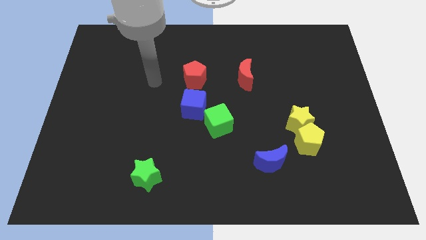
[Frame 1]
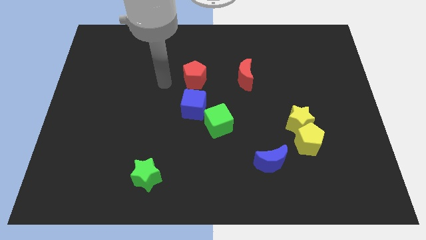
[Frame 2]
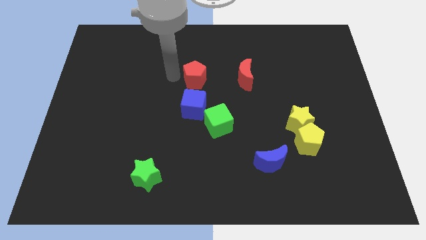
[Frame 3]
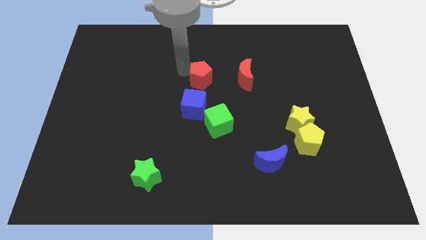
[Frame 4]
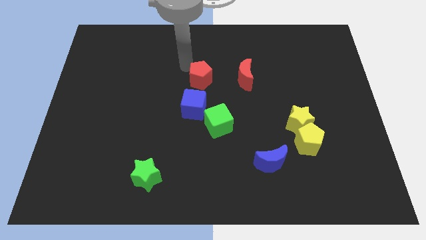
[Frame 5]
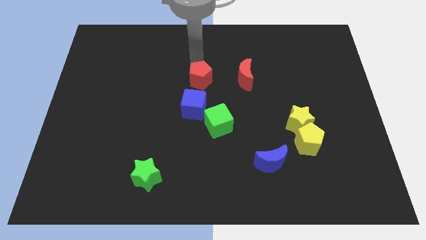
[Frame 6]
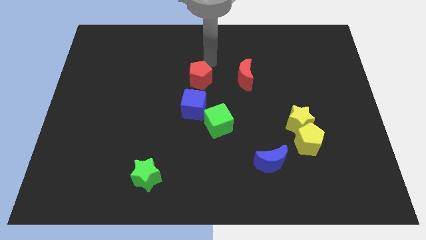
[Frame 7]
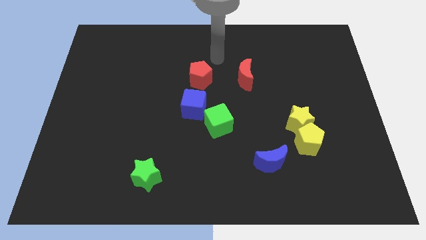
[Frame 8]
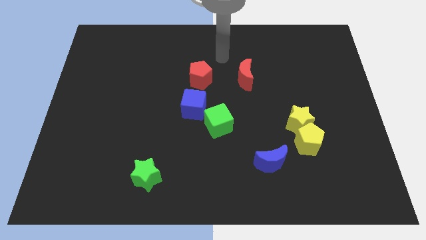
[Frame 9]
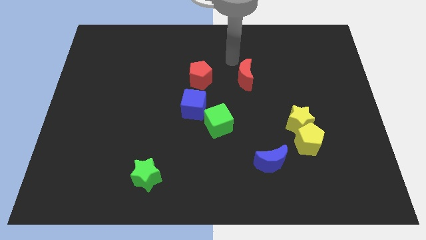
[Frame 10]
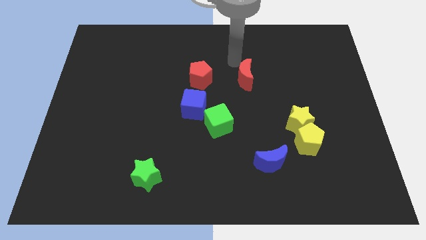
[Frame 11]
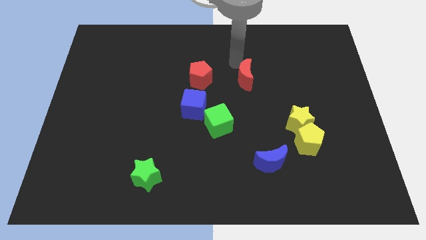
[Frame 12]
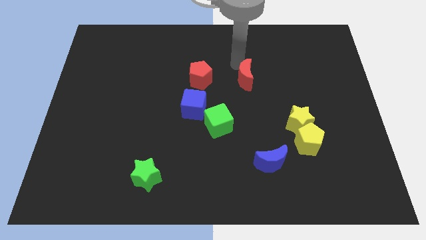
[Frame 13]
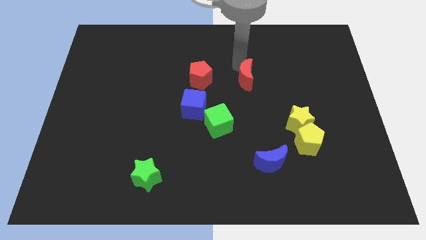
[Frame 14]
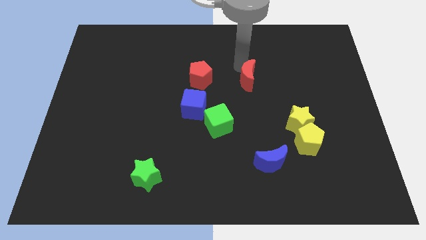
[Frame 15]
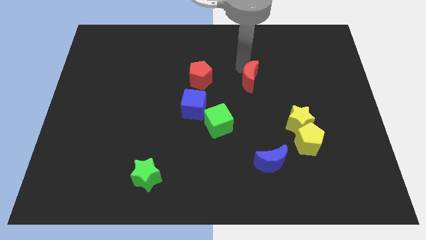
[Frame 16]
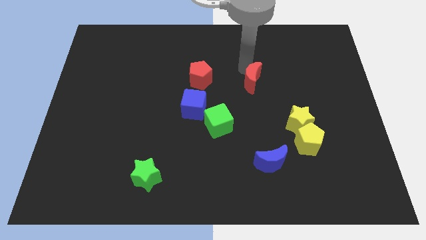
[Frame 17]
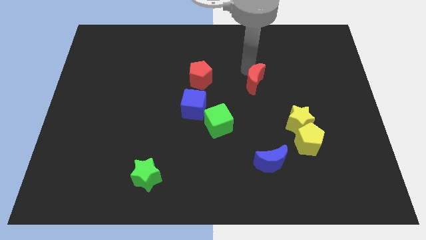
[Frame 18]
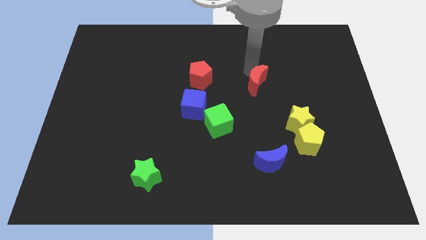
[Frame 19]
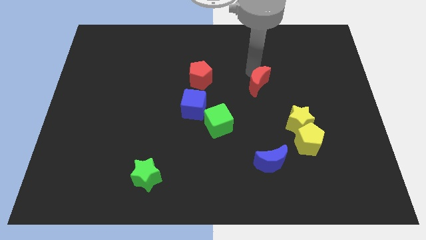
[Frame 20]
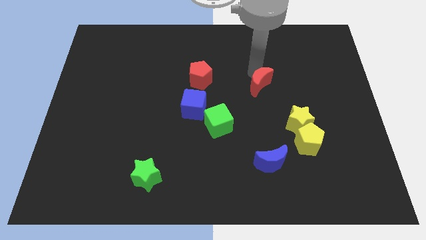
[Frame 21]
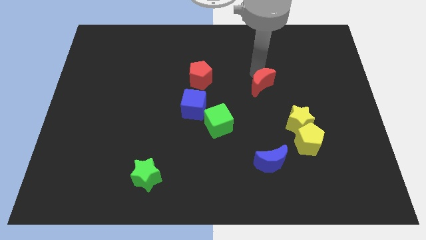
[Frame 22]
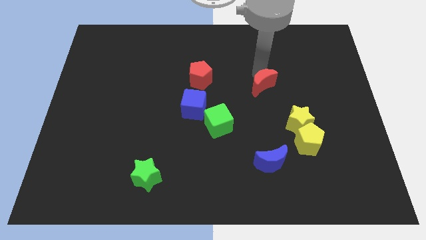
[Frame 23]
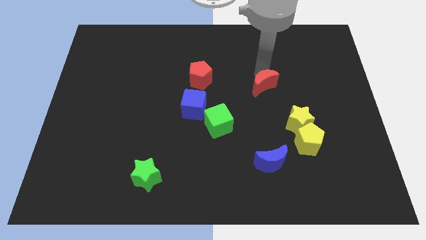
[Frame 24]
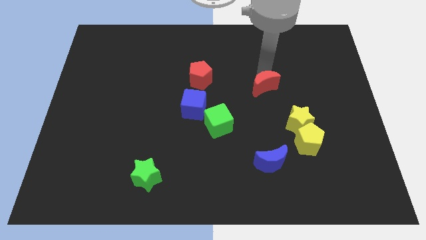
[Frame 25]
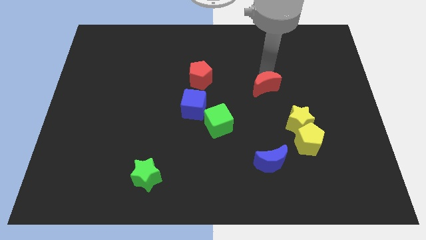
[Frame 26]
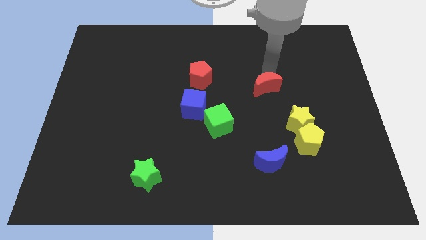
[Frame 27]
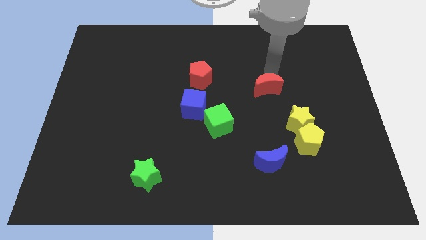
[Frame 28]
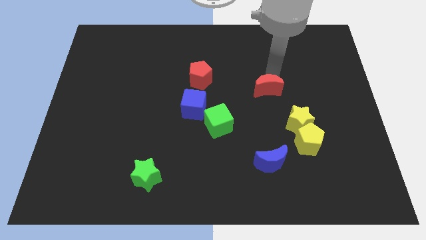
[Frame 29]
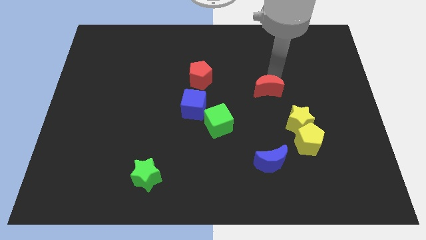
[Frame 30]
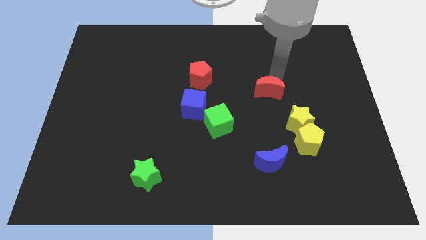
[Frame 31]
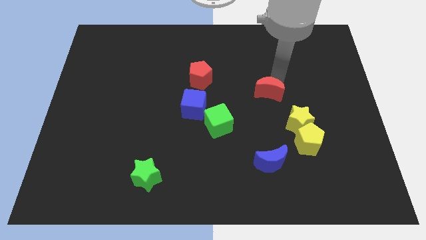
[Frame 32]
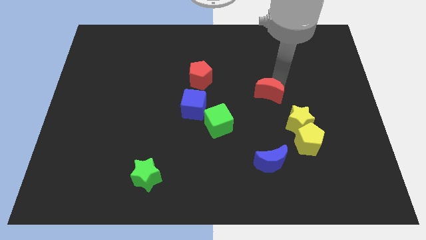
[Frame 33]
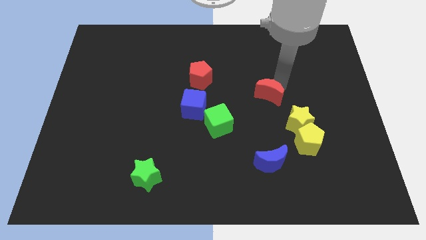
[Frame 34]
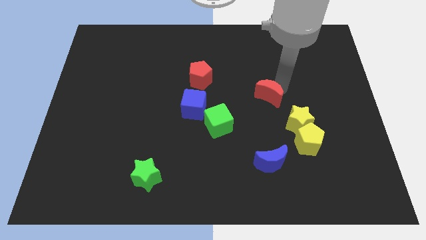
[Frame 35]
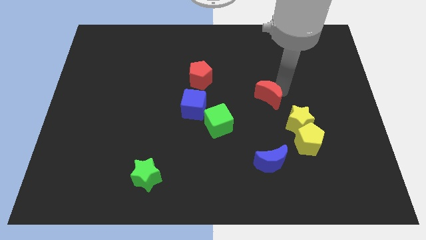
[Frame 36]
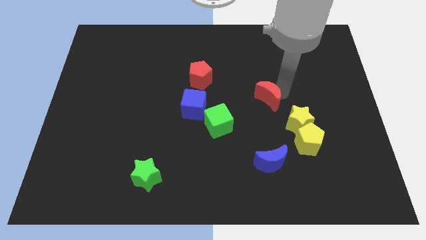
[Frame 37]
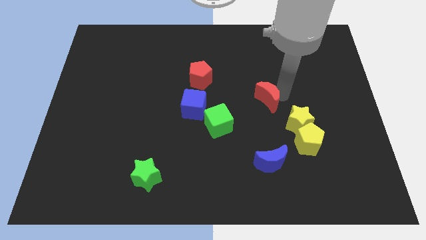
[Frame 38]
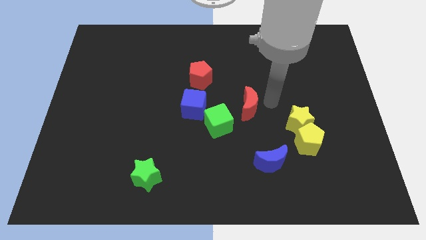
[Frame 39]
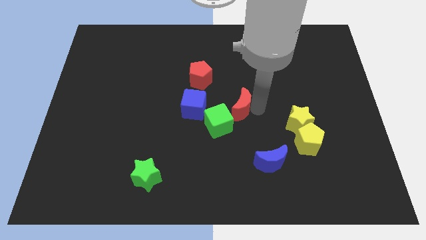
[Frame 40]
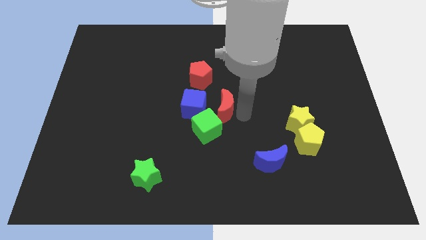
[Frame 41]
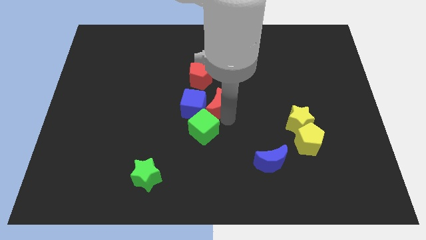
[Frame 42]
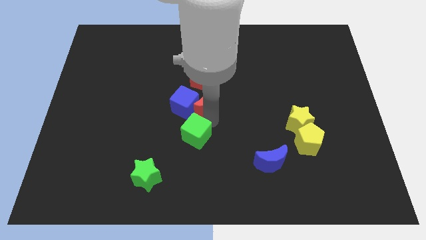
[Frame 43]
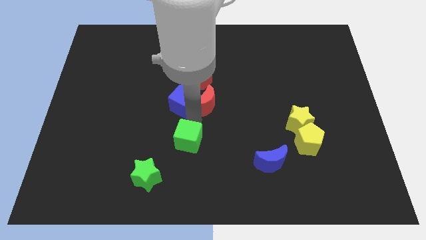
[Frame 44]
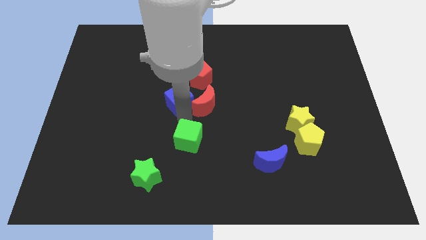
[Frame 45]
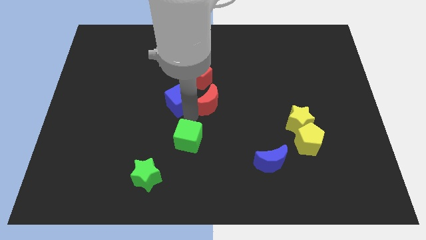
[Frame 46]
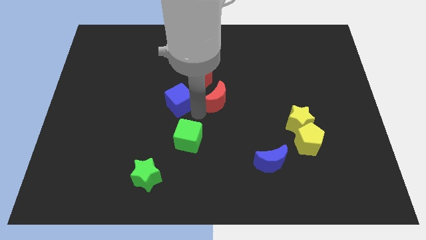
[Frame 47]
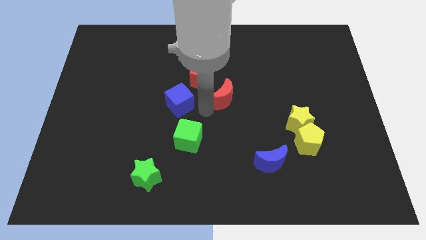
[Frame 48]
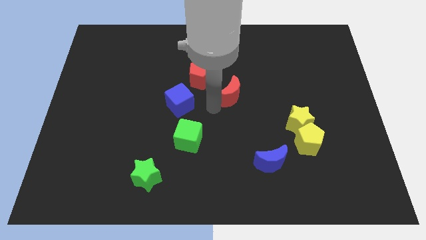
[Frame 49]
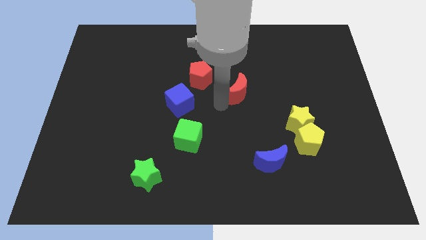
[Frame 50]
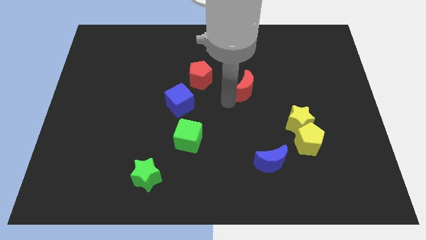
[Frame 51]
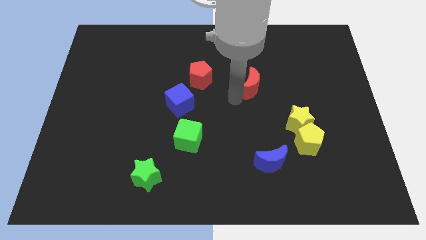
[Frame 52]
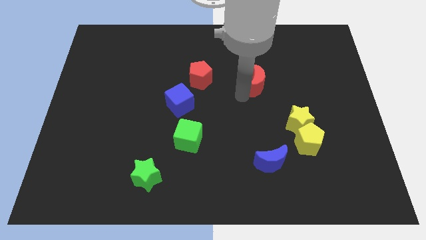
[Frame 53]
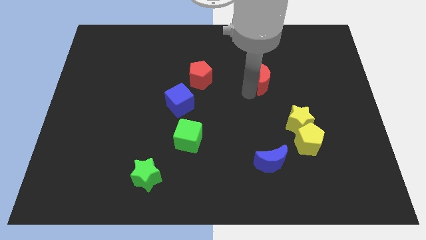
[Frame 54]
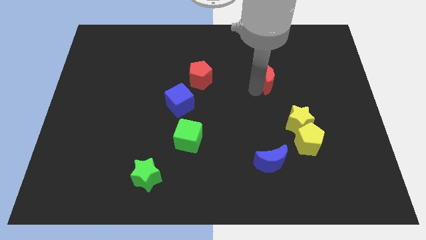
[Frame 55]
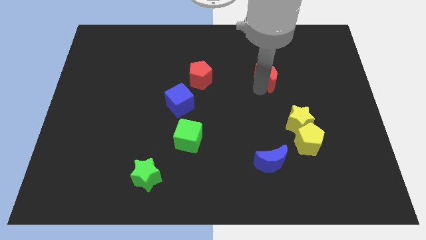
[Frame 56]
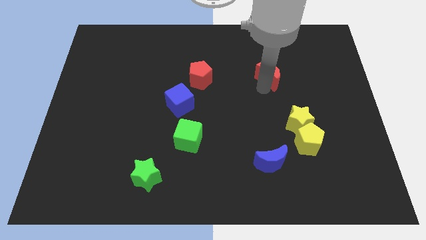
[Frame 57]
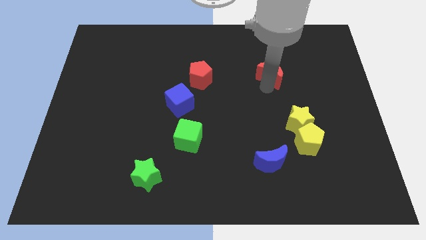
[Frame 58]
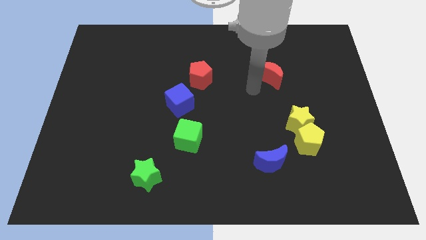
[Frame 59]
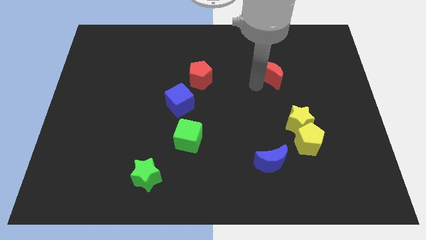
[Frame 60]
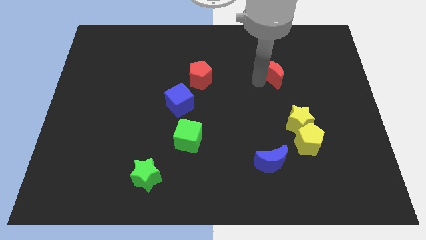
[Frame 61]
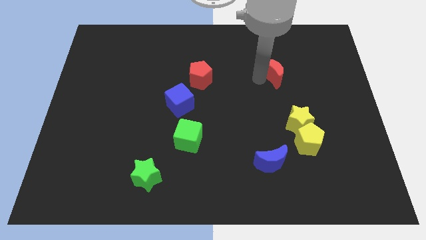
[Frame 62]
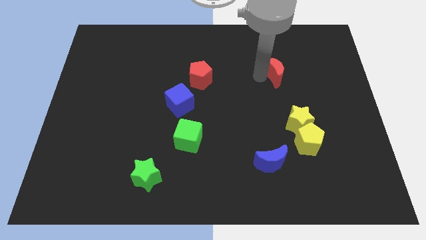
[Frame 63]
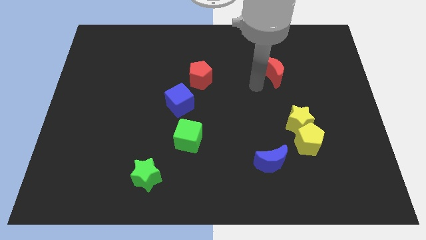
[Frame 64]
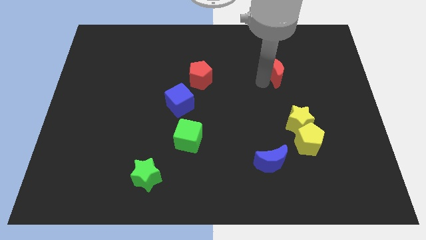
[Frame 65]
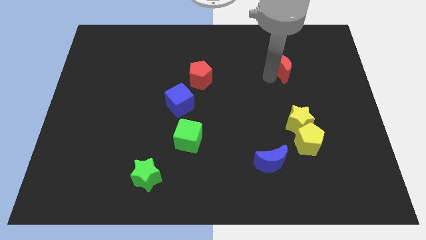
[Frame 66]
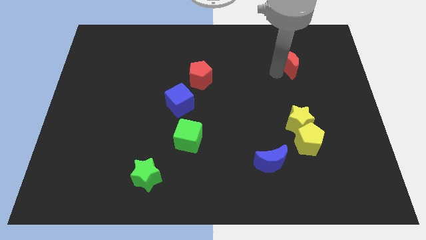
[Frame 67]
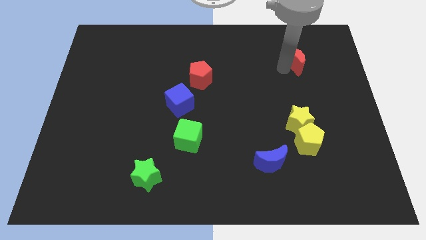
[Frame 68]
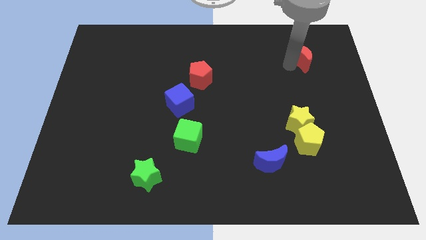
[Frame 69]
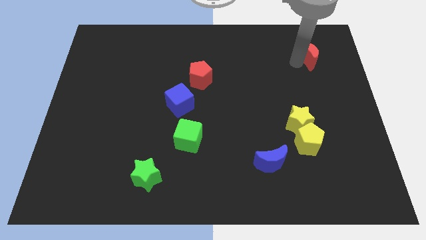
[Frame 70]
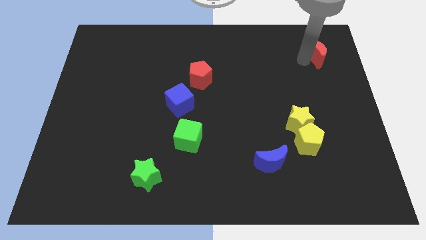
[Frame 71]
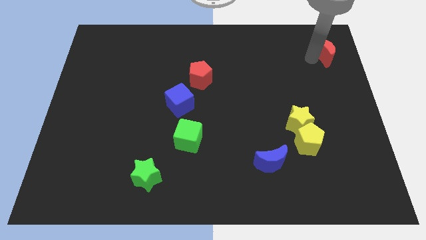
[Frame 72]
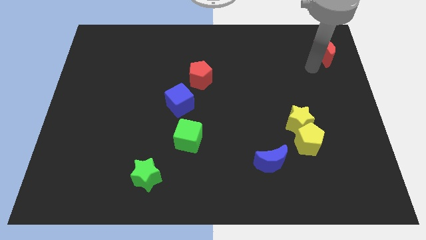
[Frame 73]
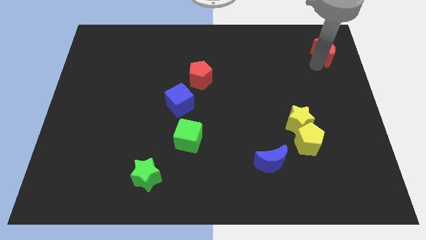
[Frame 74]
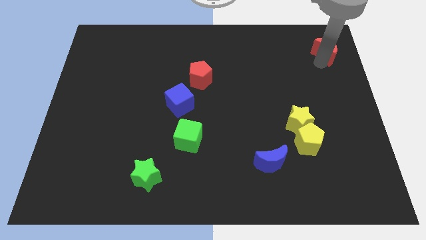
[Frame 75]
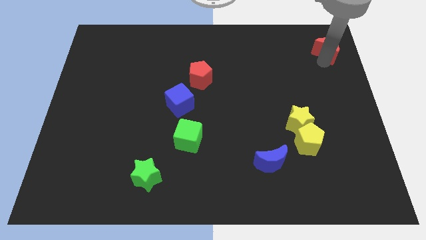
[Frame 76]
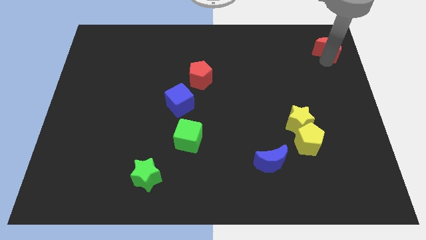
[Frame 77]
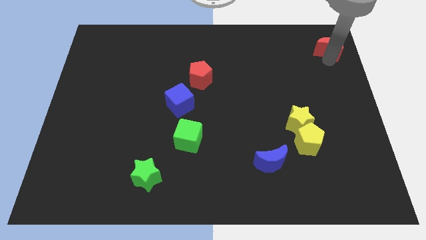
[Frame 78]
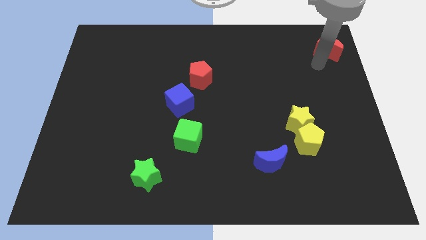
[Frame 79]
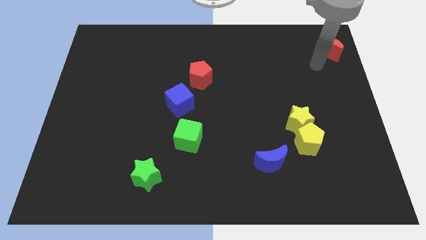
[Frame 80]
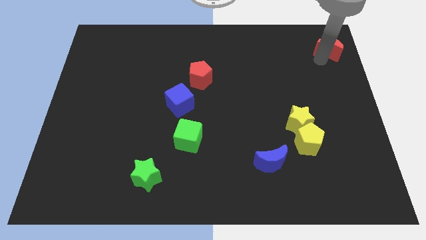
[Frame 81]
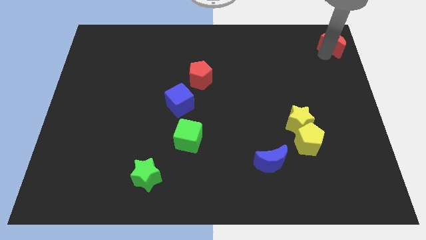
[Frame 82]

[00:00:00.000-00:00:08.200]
move the red moon to the top right of the board

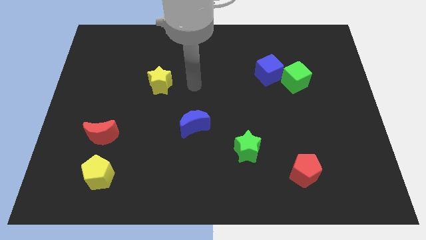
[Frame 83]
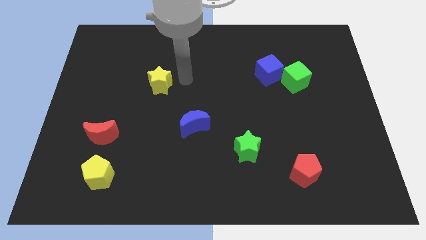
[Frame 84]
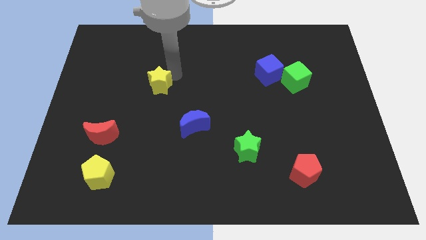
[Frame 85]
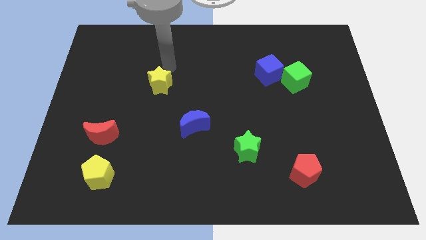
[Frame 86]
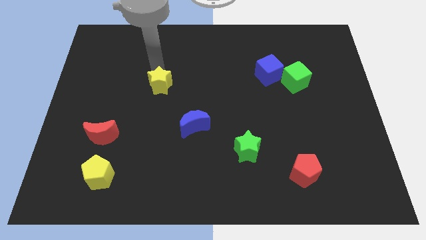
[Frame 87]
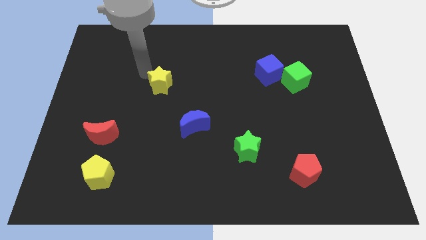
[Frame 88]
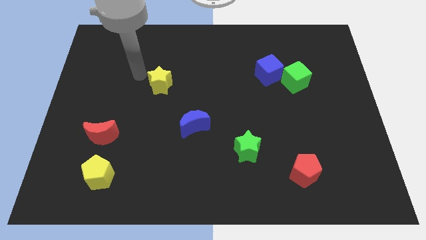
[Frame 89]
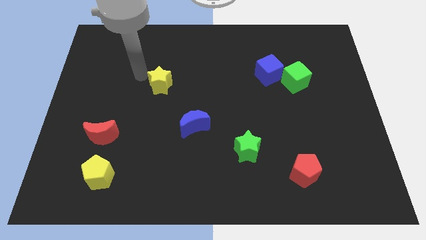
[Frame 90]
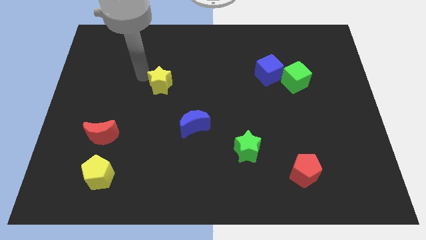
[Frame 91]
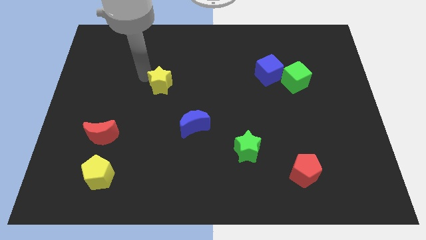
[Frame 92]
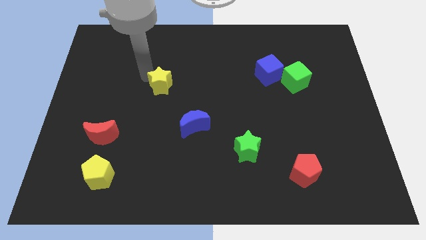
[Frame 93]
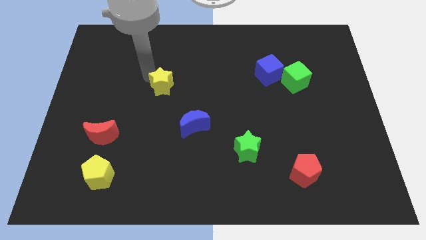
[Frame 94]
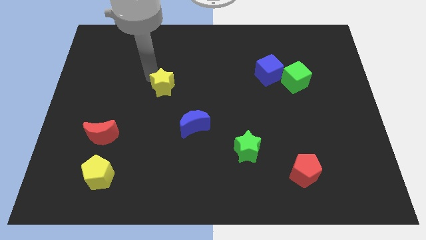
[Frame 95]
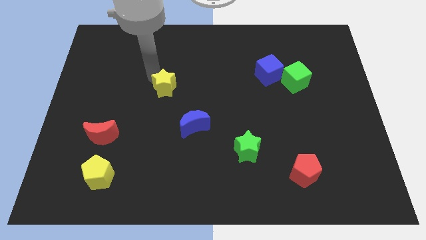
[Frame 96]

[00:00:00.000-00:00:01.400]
slide the yellow star to the center of the board
